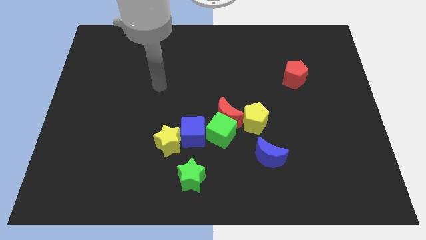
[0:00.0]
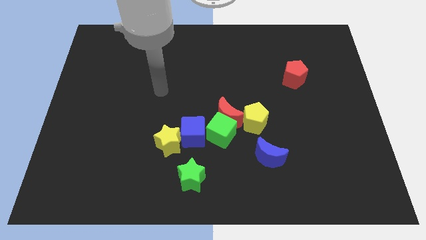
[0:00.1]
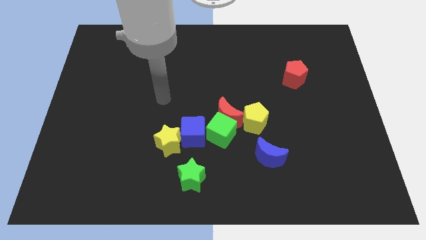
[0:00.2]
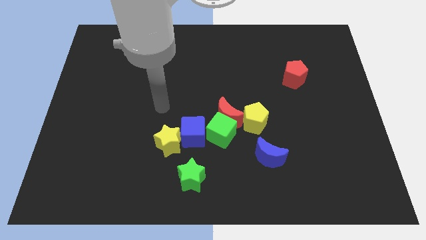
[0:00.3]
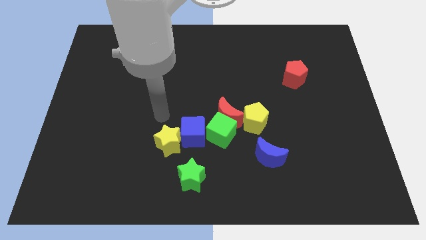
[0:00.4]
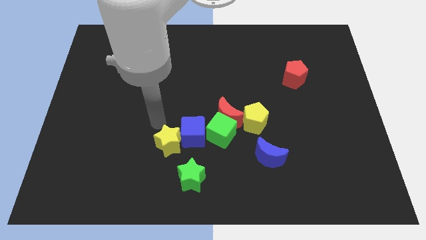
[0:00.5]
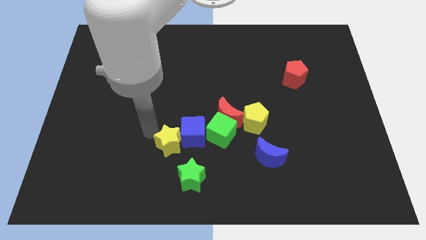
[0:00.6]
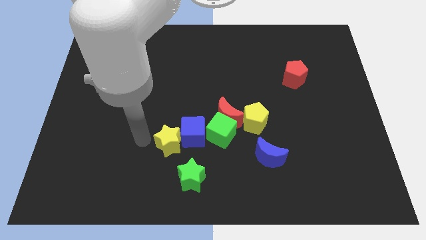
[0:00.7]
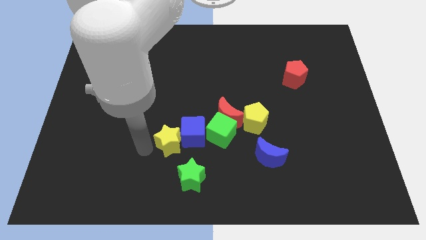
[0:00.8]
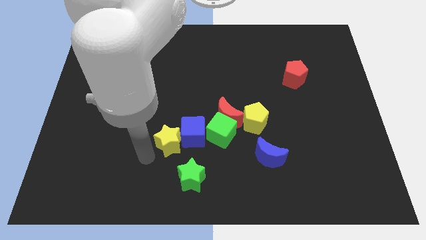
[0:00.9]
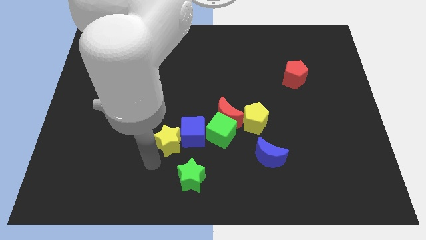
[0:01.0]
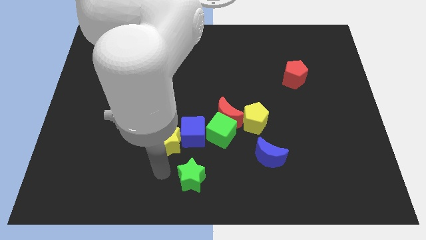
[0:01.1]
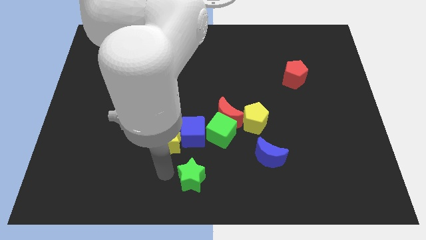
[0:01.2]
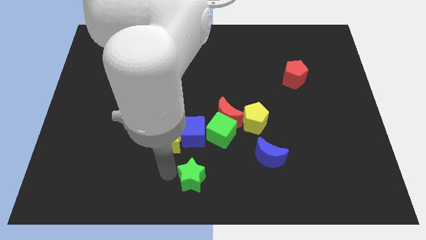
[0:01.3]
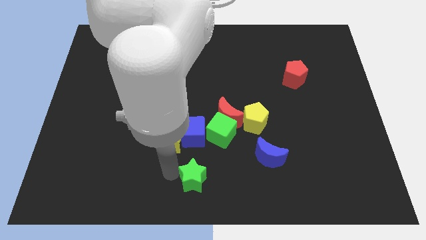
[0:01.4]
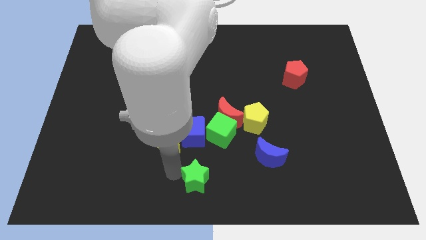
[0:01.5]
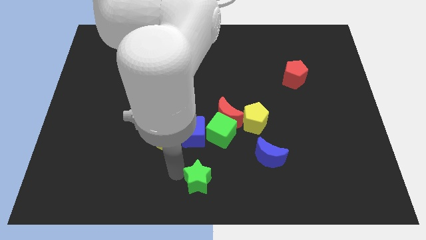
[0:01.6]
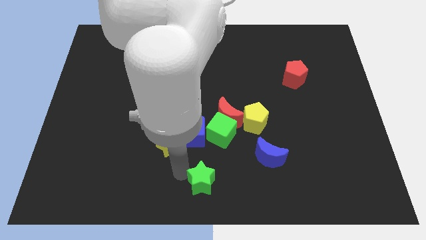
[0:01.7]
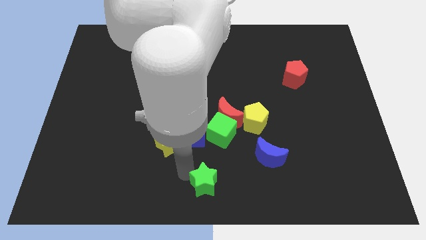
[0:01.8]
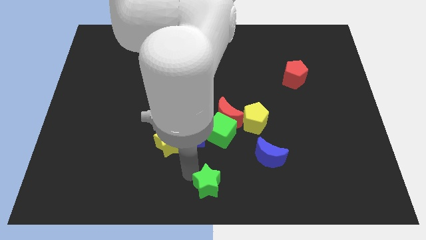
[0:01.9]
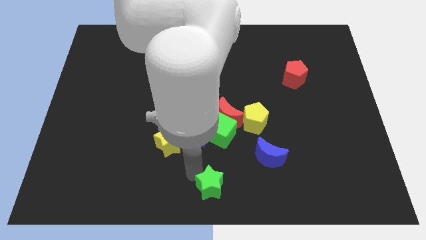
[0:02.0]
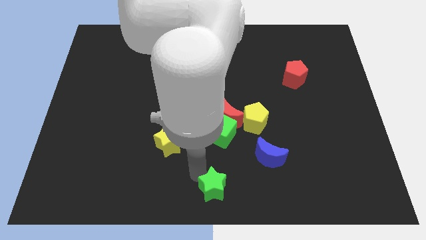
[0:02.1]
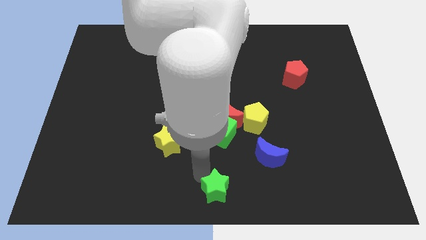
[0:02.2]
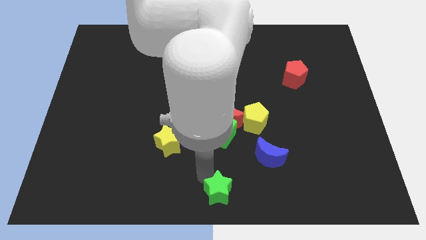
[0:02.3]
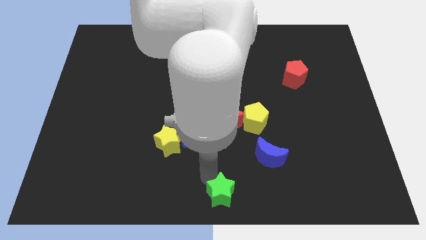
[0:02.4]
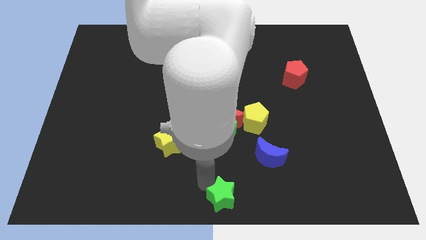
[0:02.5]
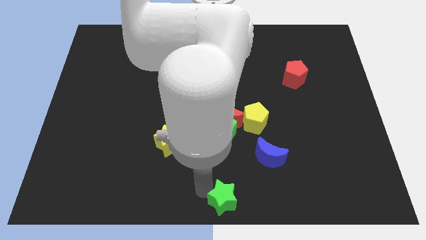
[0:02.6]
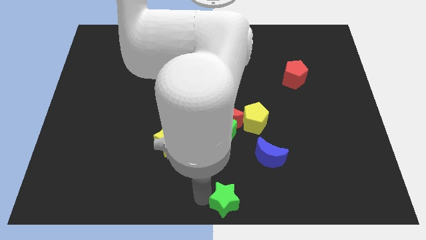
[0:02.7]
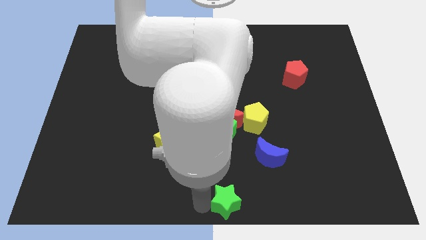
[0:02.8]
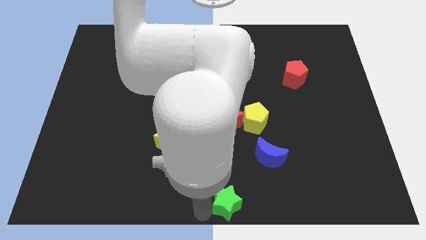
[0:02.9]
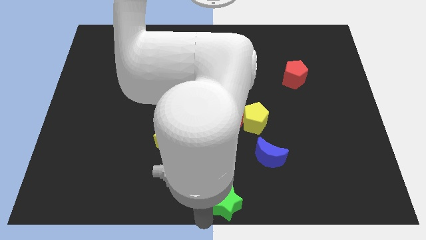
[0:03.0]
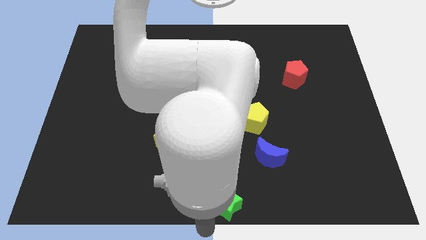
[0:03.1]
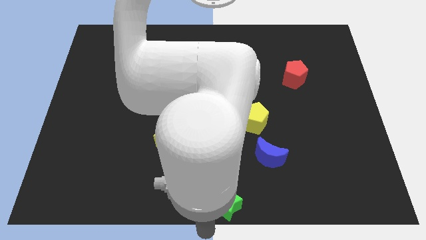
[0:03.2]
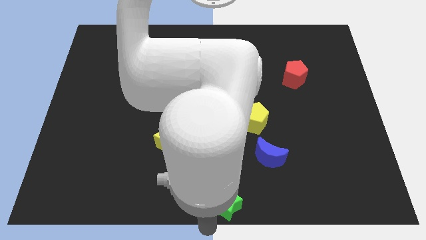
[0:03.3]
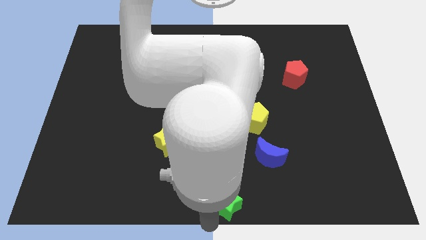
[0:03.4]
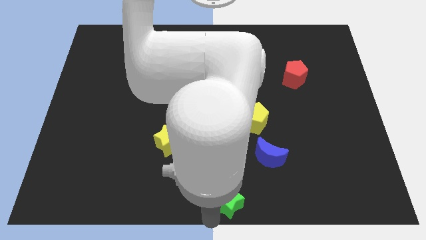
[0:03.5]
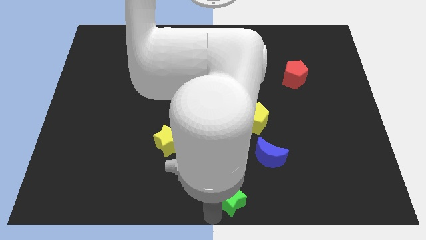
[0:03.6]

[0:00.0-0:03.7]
slightly move the green star right

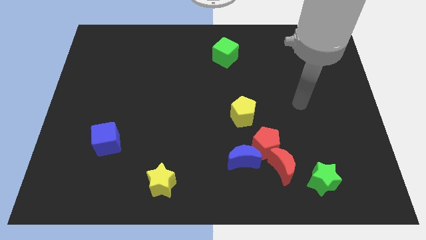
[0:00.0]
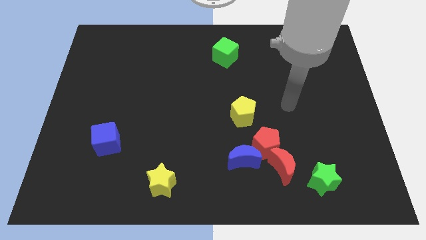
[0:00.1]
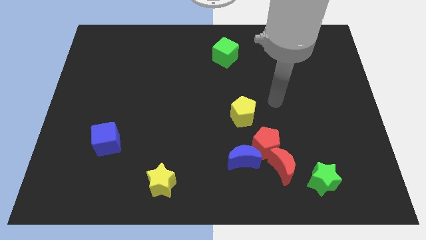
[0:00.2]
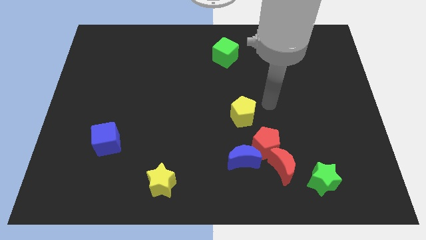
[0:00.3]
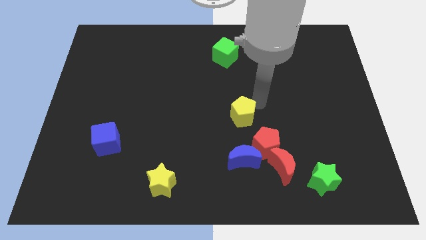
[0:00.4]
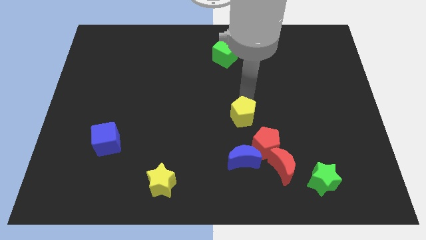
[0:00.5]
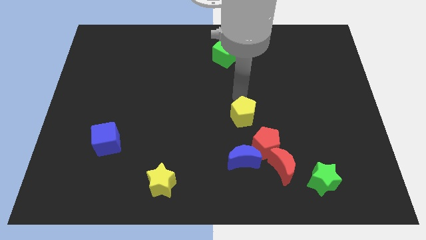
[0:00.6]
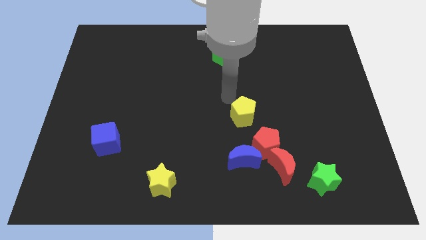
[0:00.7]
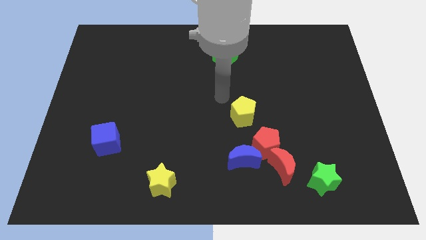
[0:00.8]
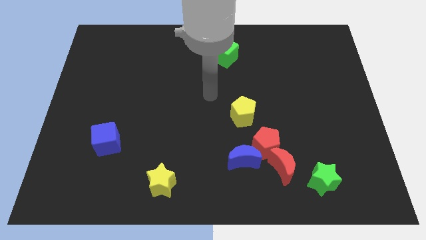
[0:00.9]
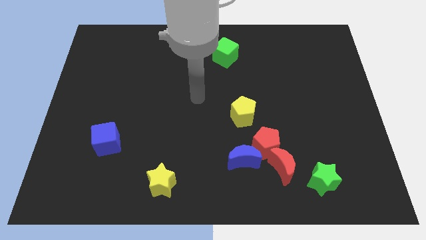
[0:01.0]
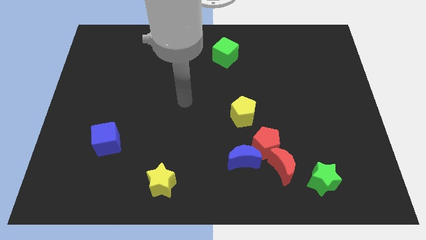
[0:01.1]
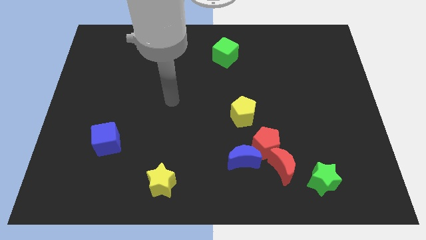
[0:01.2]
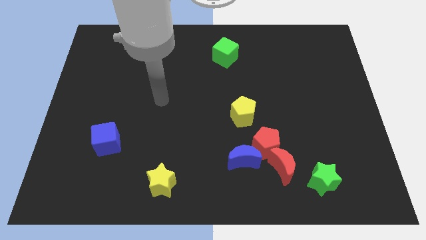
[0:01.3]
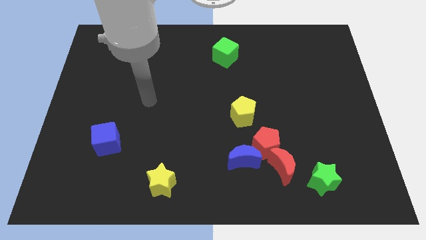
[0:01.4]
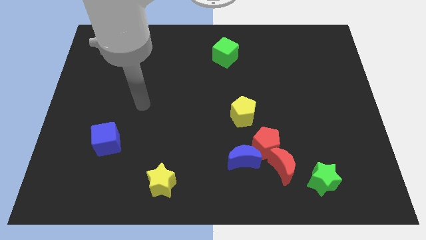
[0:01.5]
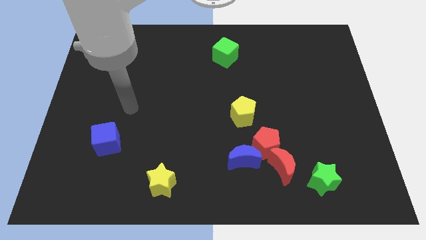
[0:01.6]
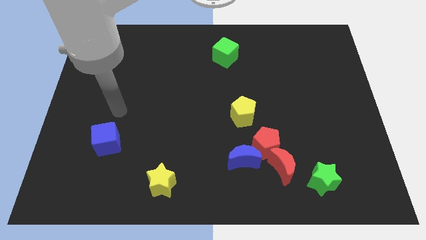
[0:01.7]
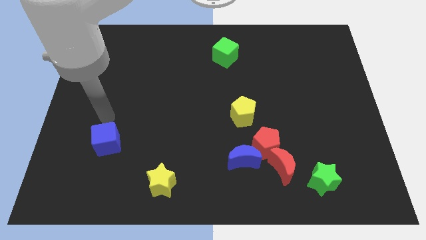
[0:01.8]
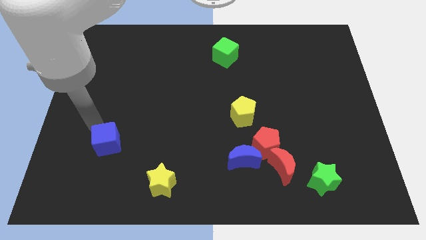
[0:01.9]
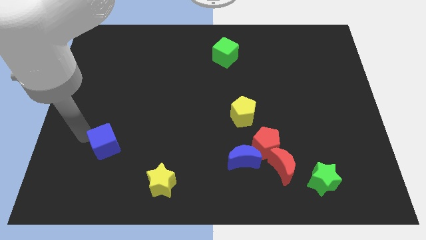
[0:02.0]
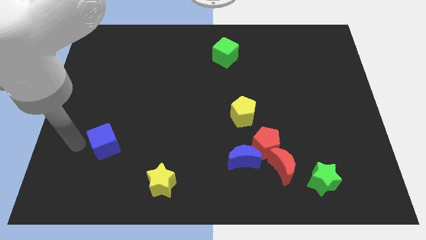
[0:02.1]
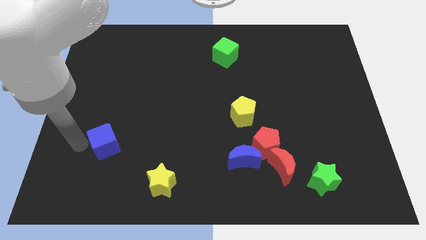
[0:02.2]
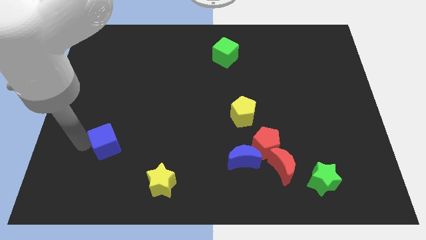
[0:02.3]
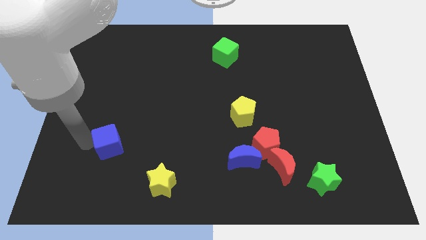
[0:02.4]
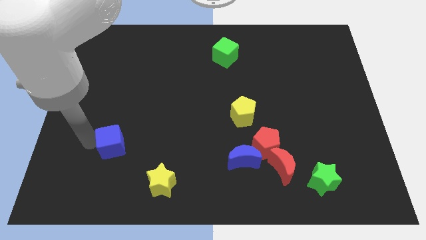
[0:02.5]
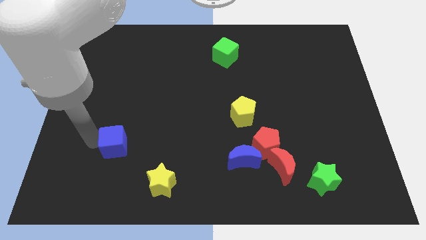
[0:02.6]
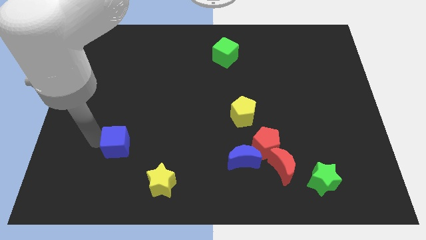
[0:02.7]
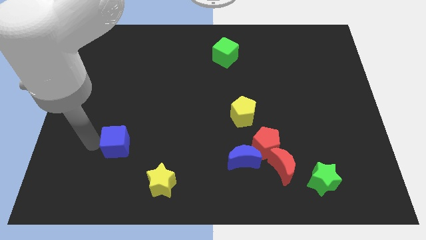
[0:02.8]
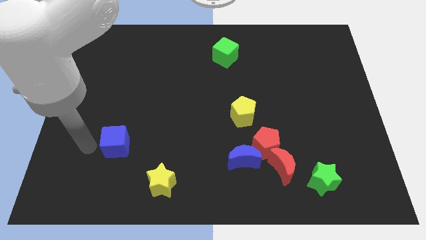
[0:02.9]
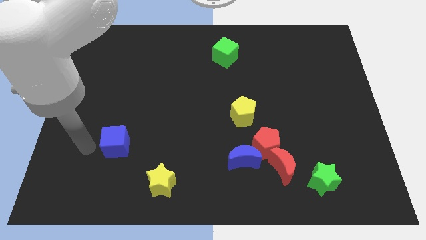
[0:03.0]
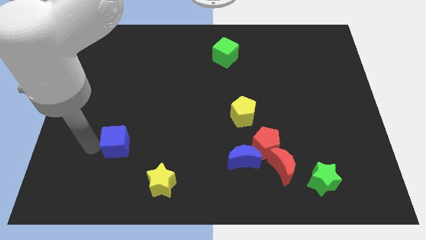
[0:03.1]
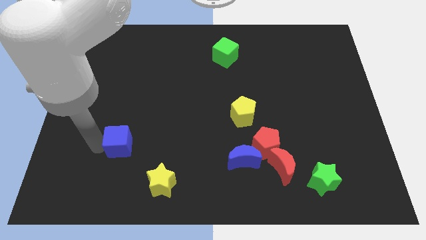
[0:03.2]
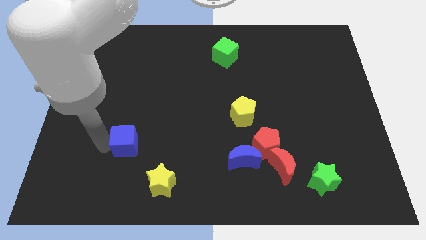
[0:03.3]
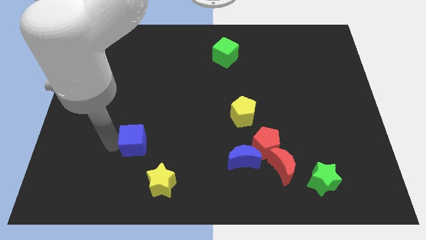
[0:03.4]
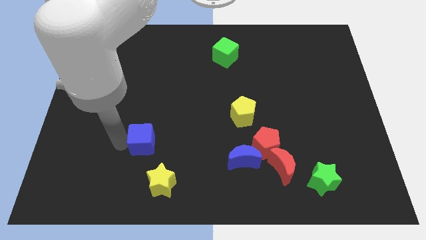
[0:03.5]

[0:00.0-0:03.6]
move the blue cube right a little

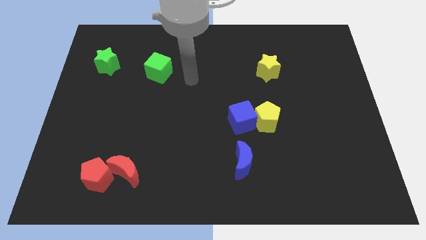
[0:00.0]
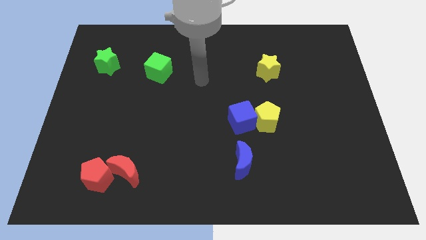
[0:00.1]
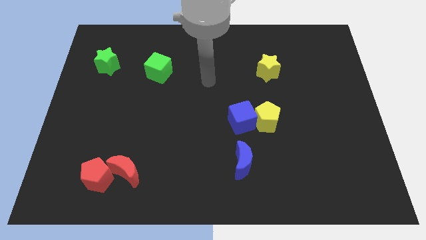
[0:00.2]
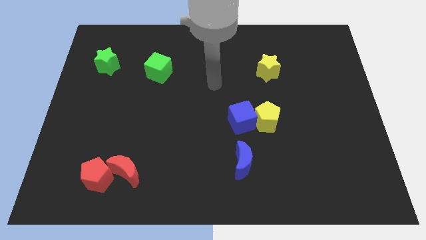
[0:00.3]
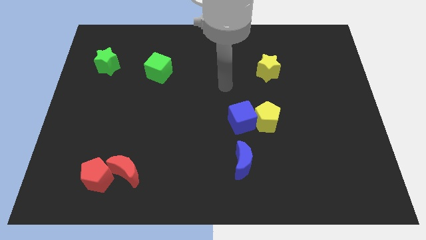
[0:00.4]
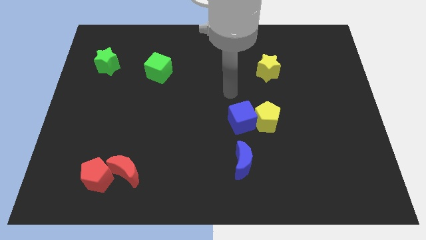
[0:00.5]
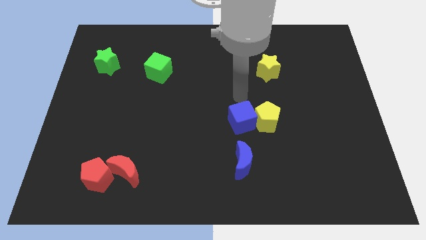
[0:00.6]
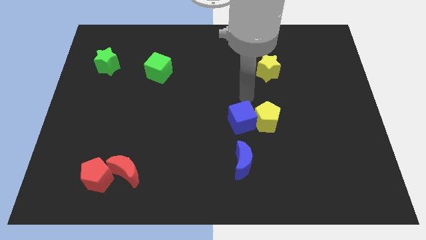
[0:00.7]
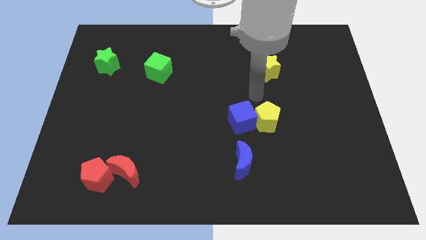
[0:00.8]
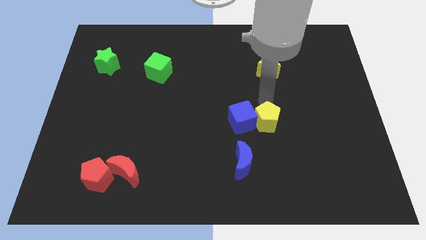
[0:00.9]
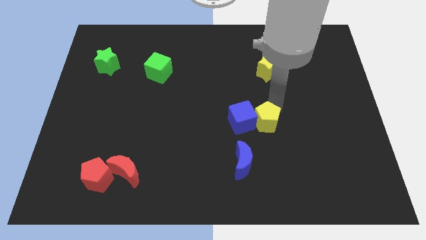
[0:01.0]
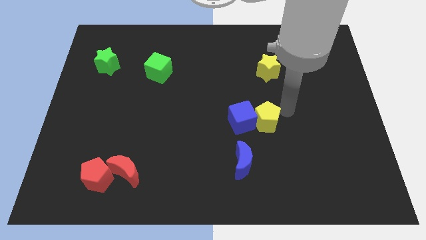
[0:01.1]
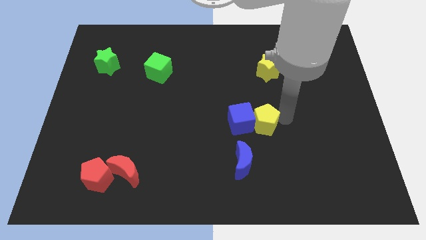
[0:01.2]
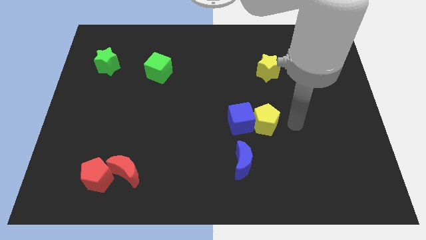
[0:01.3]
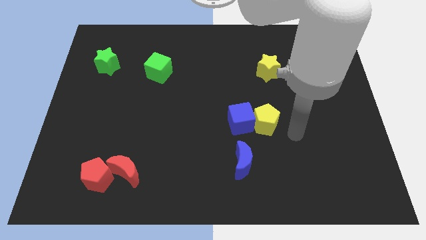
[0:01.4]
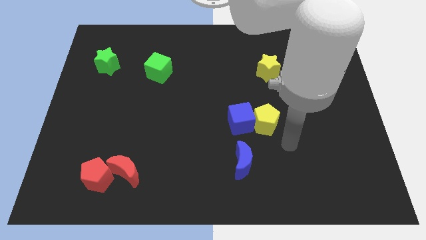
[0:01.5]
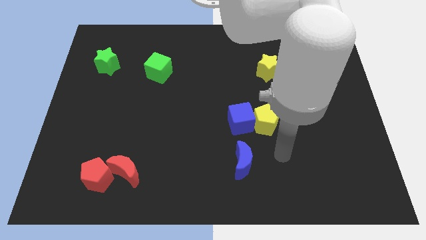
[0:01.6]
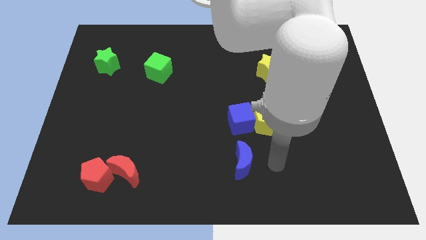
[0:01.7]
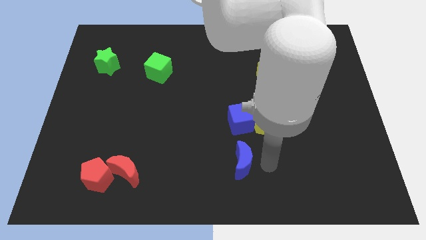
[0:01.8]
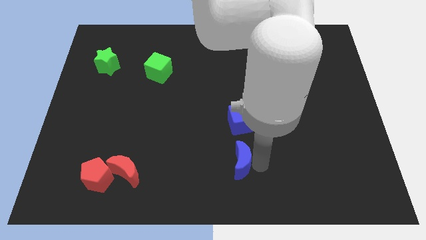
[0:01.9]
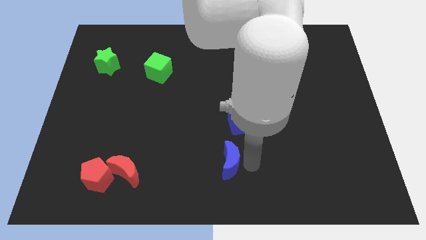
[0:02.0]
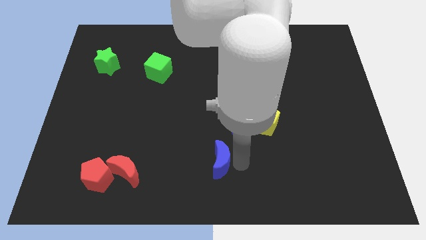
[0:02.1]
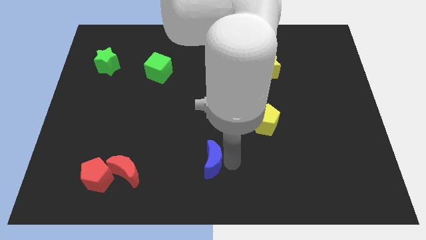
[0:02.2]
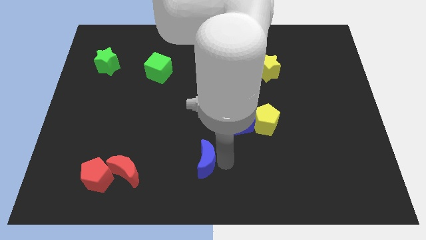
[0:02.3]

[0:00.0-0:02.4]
move the blue moon to the left a little bit
